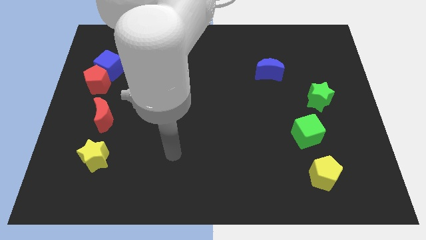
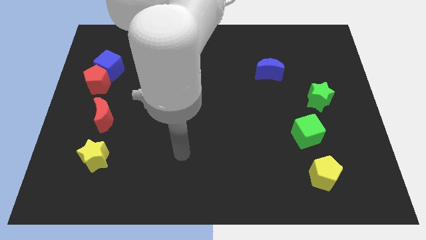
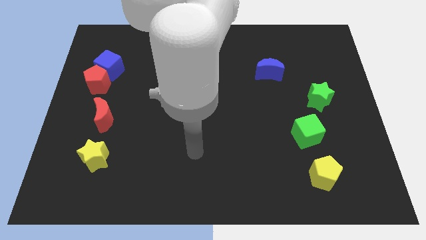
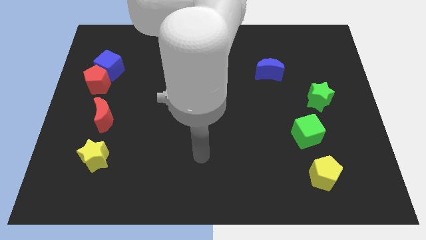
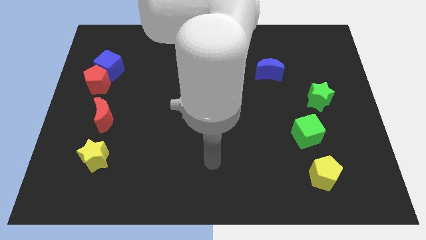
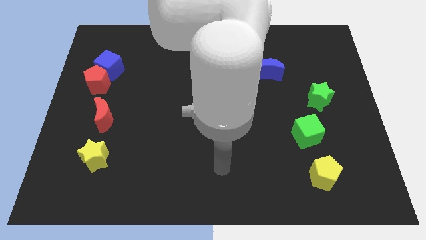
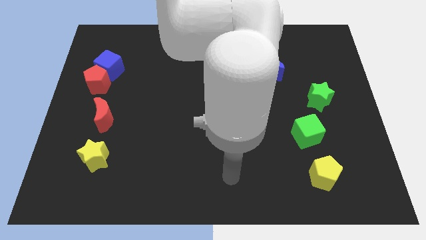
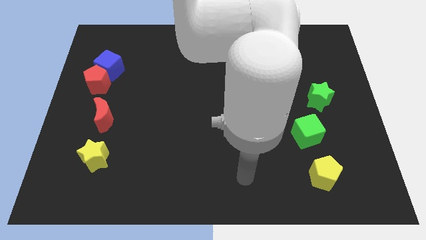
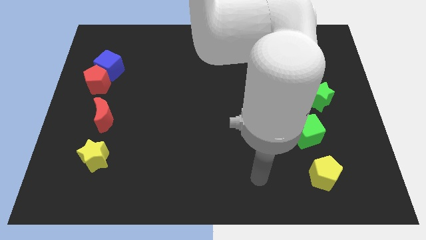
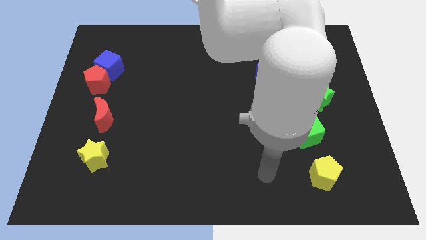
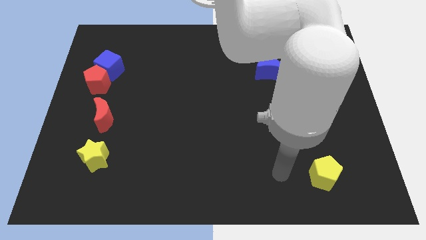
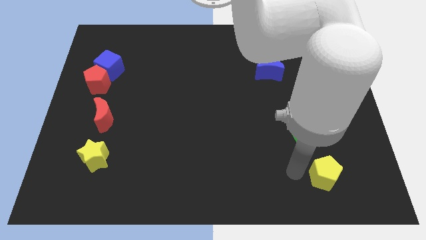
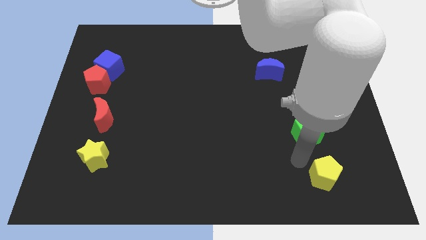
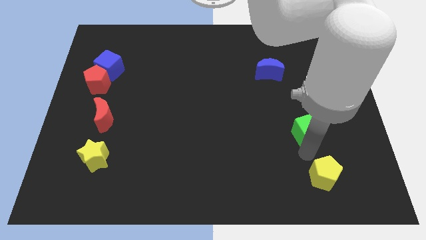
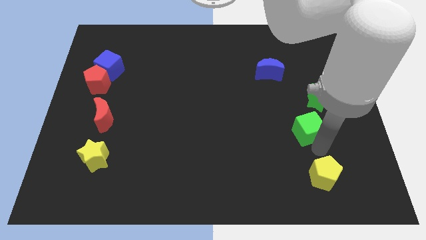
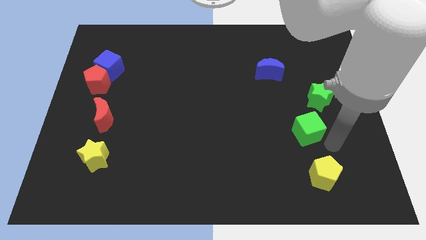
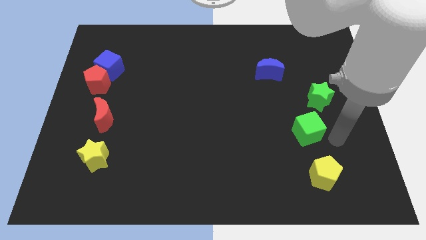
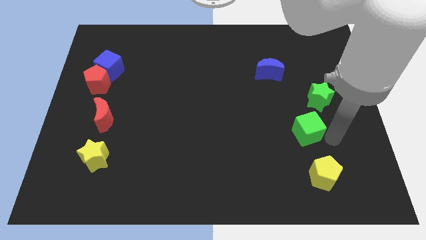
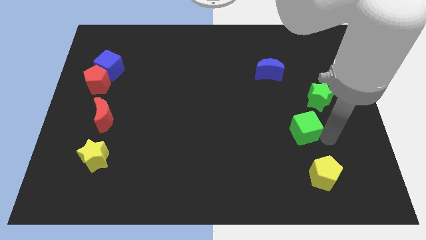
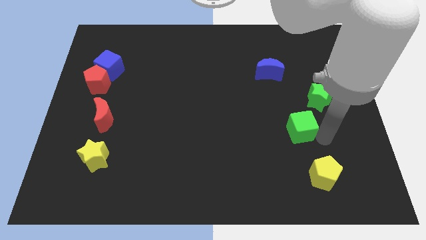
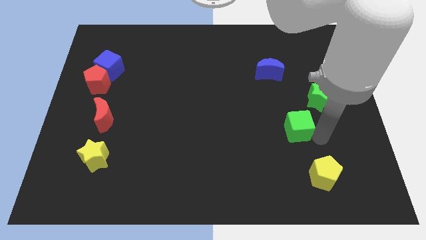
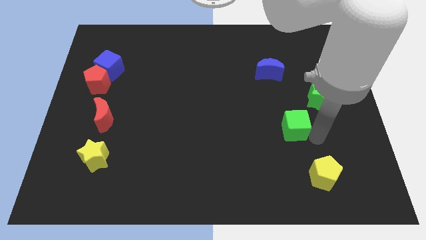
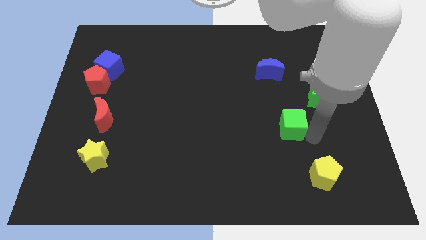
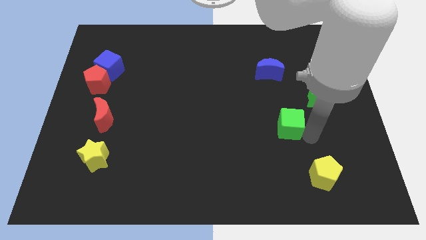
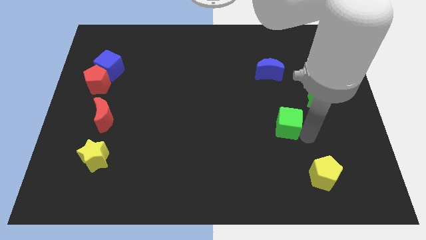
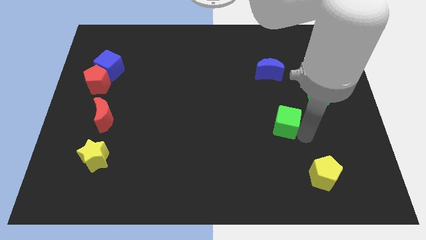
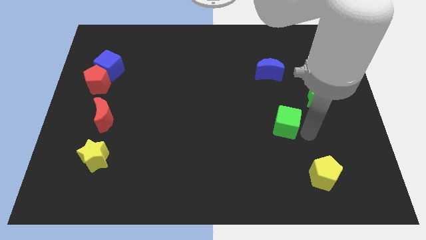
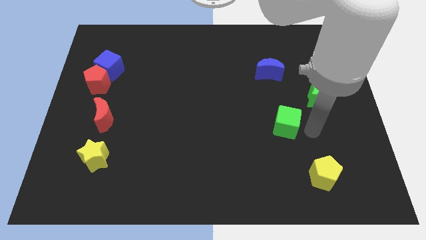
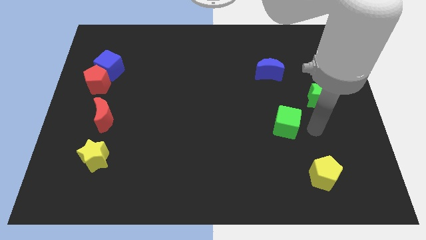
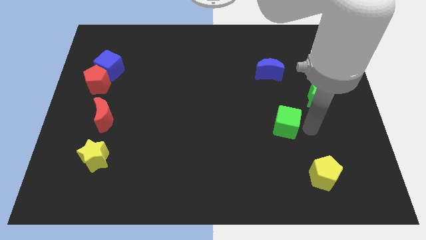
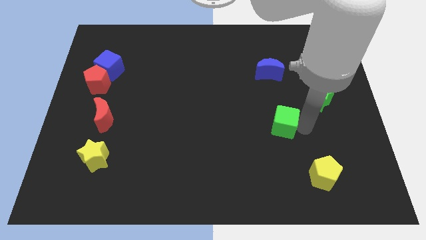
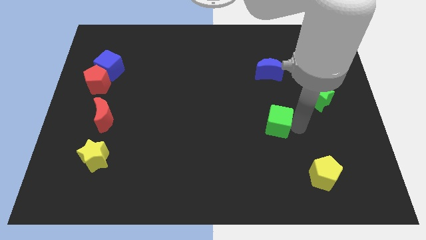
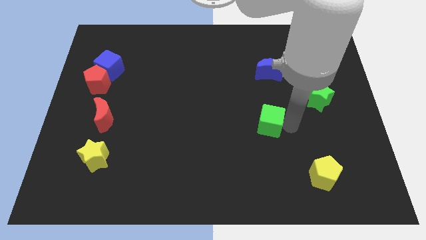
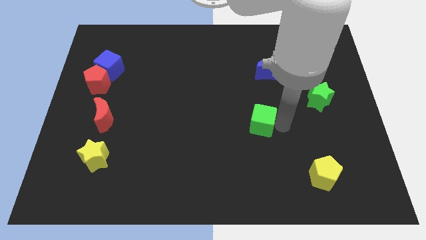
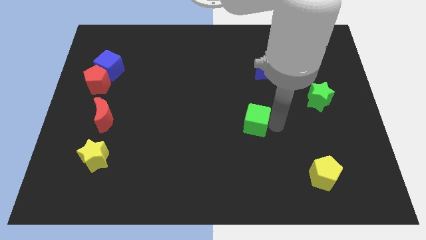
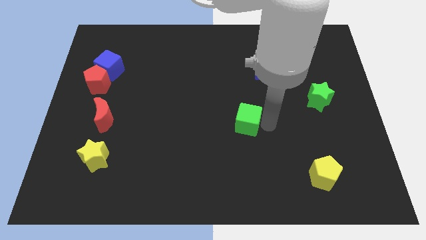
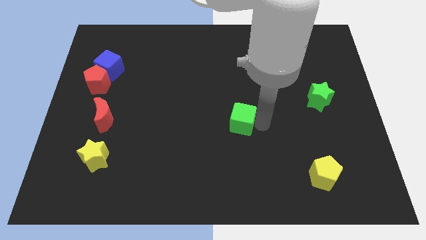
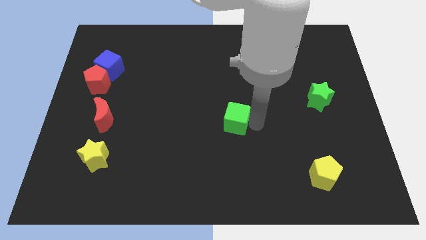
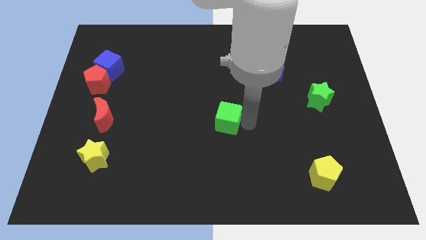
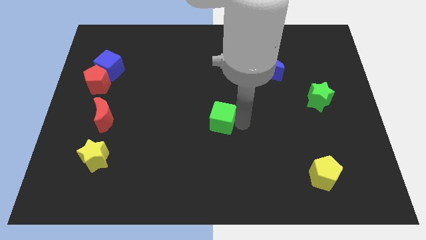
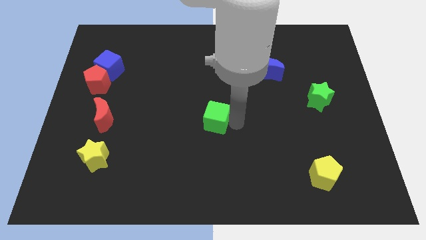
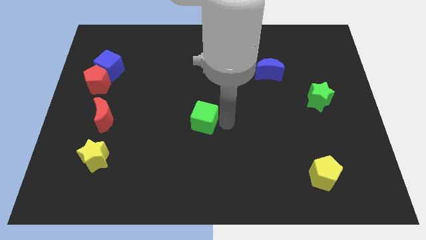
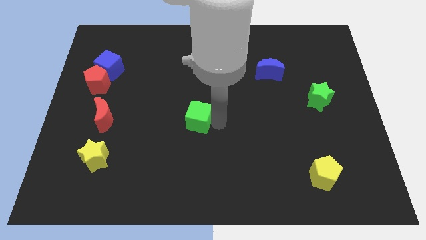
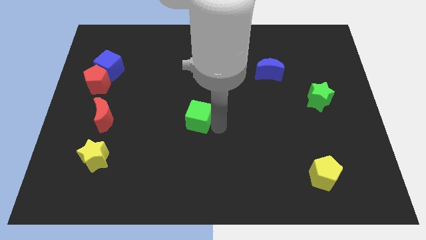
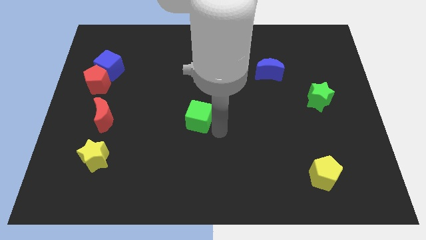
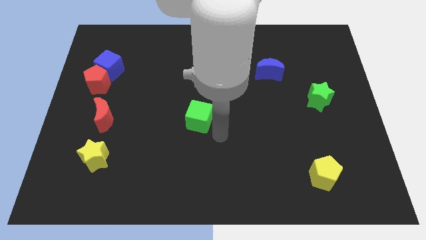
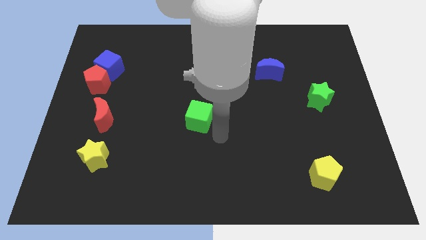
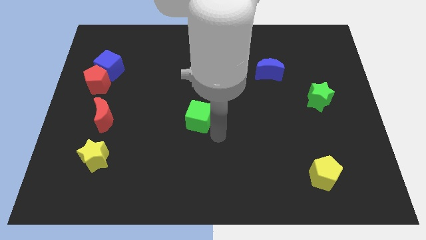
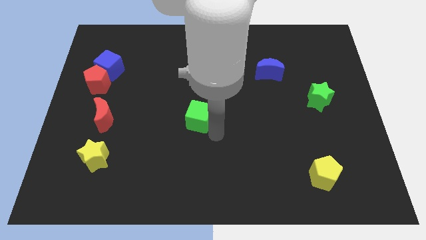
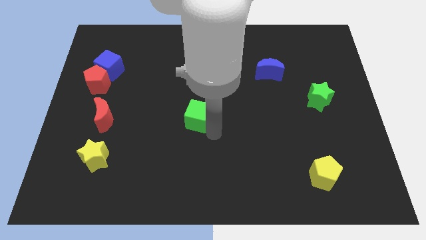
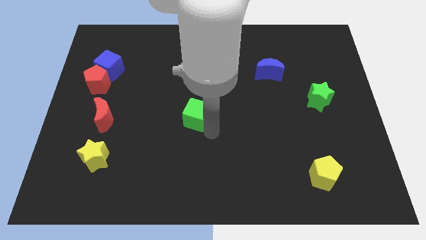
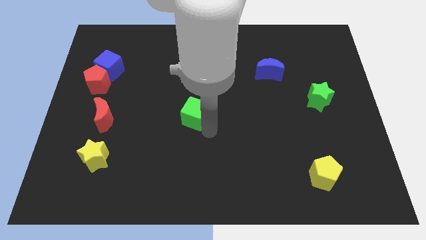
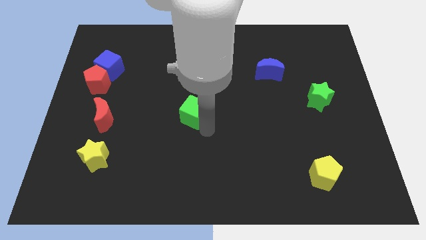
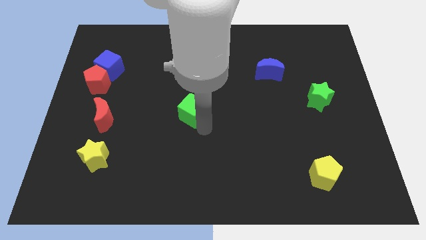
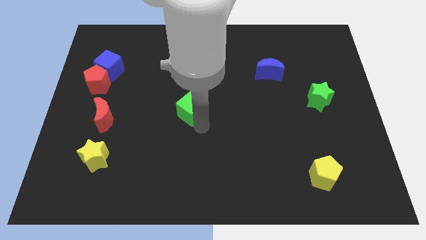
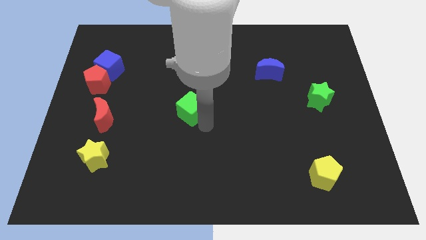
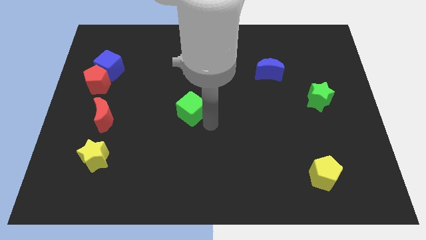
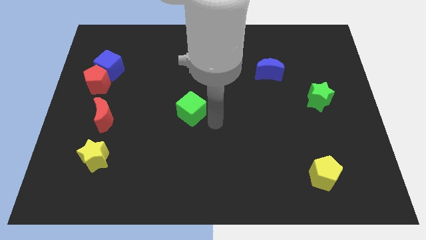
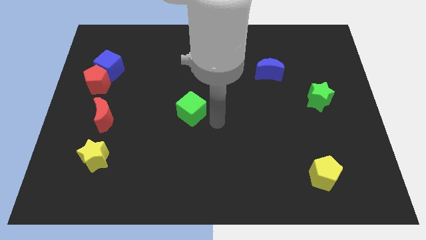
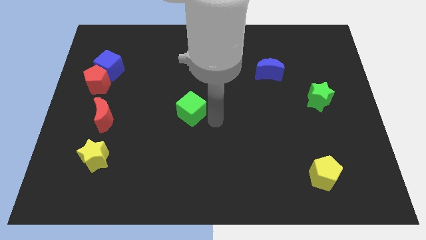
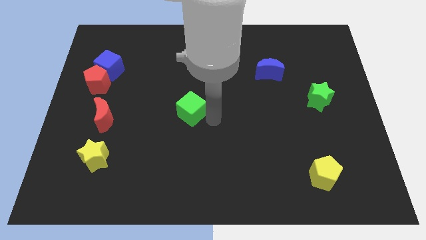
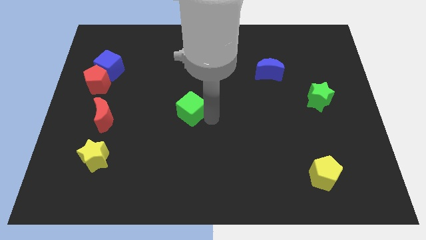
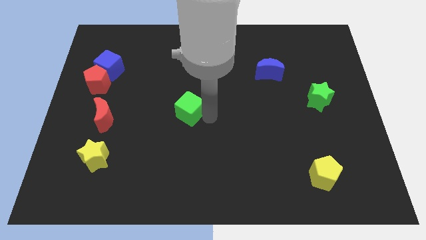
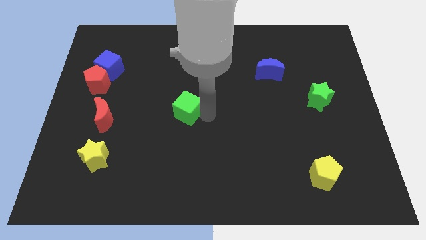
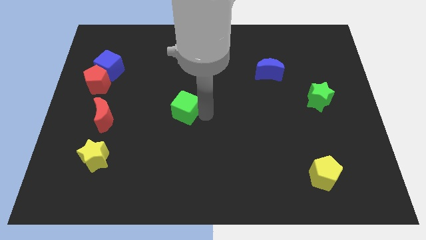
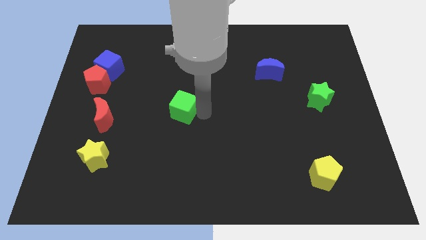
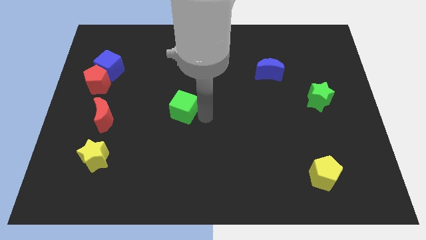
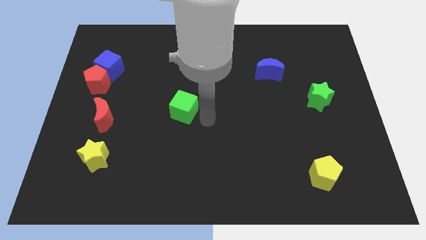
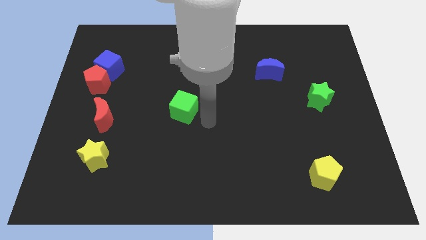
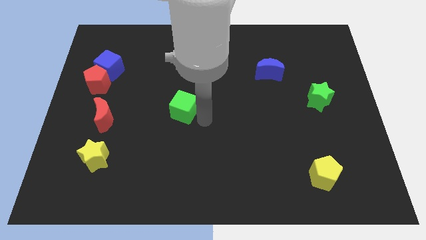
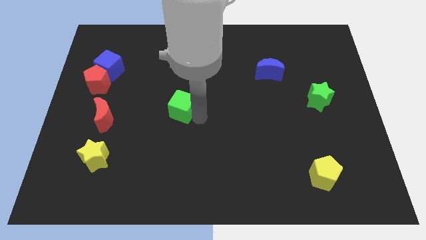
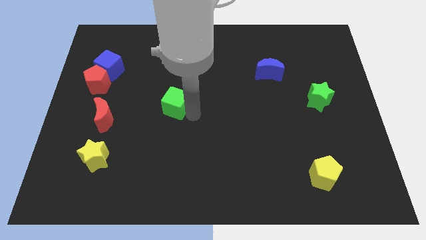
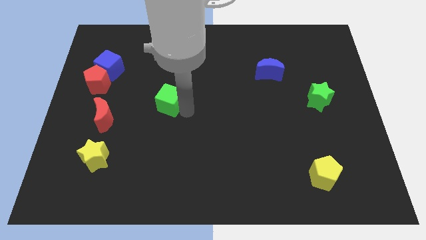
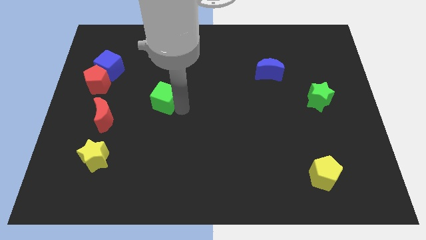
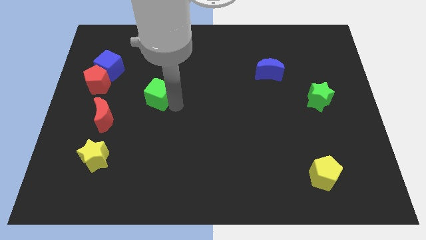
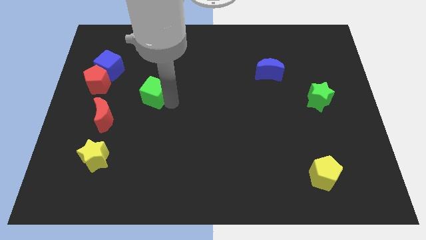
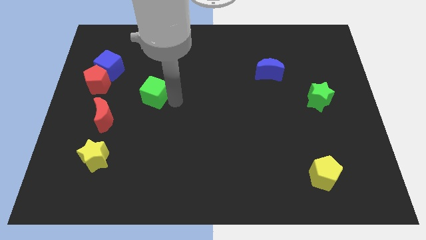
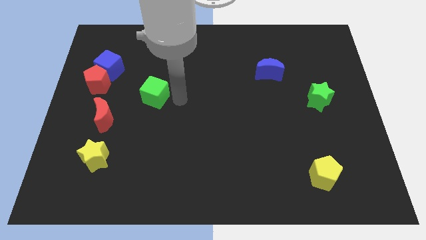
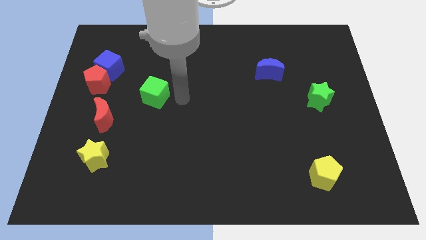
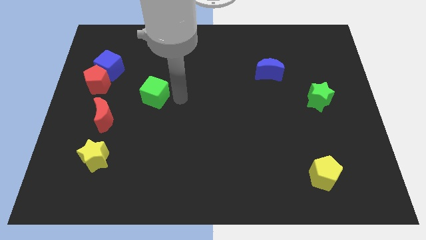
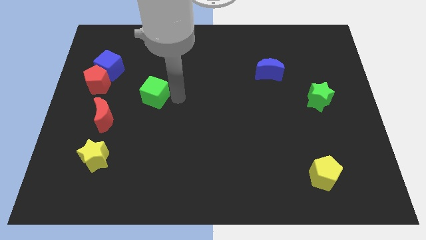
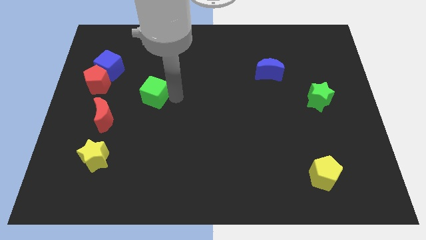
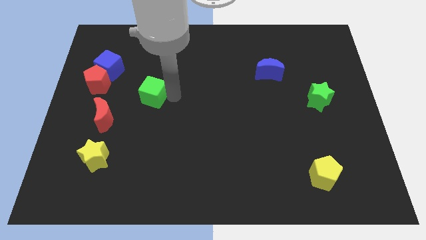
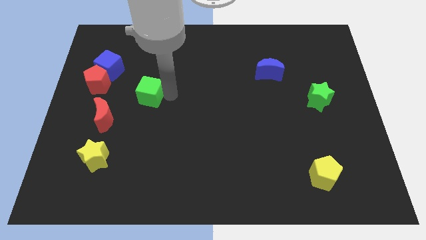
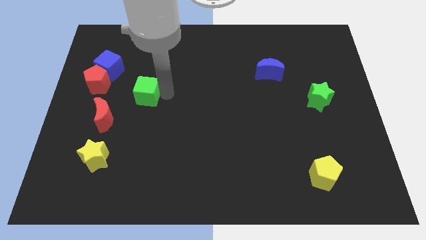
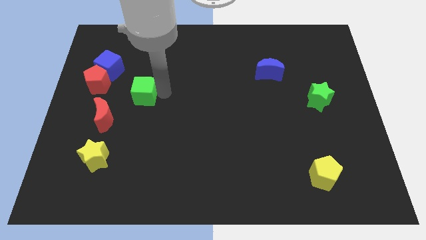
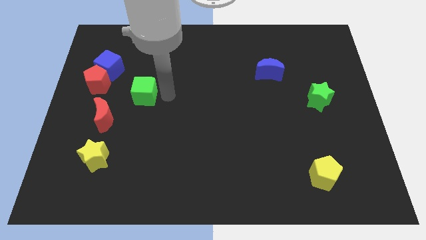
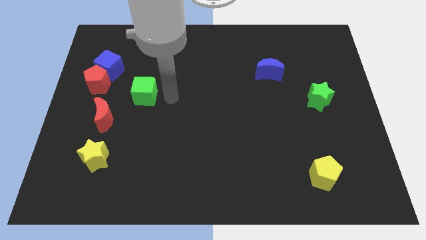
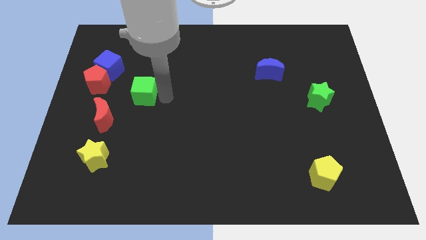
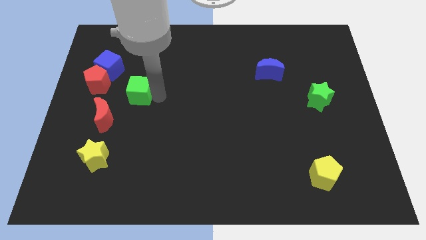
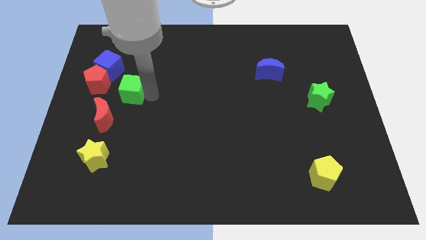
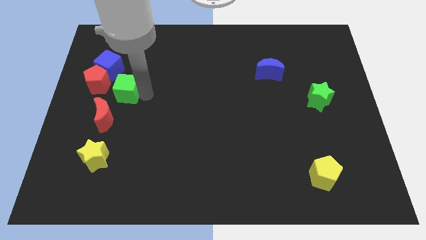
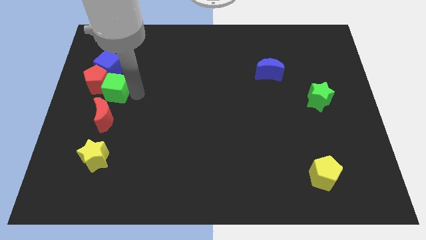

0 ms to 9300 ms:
slide the green cube to the red pentagon
